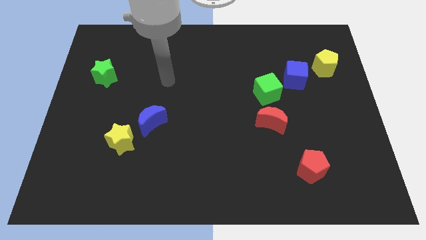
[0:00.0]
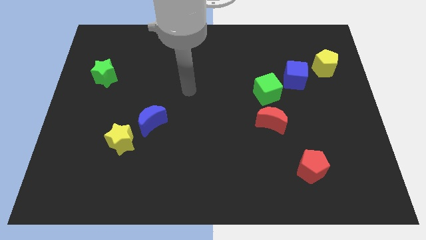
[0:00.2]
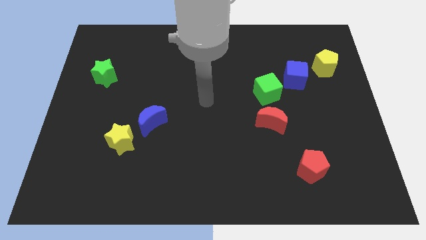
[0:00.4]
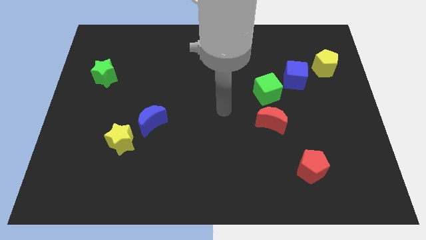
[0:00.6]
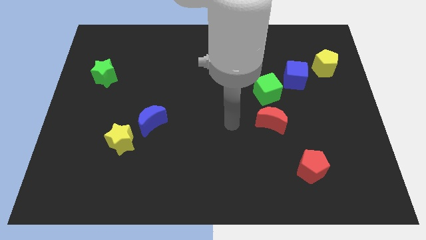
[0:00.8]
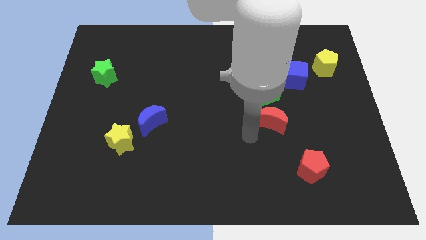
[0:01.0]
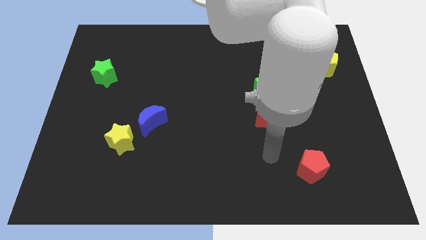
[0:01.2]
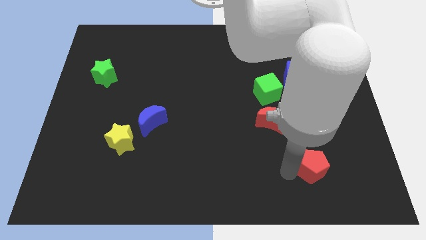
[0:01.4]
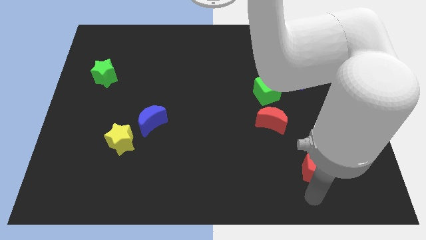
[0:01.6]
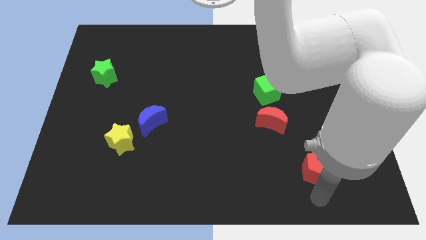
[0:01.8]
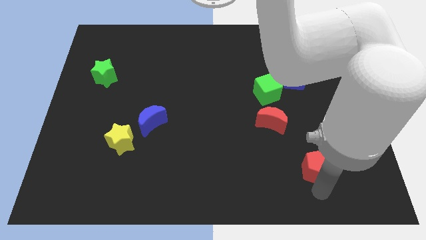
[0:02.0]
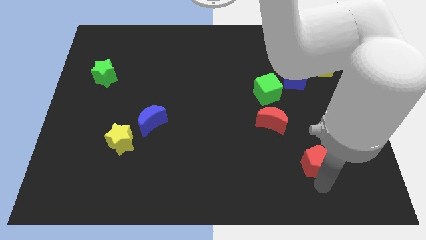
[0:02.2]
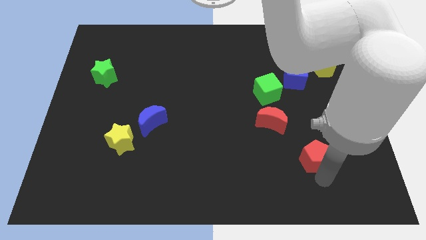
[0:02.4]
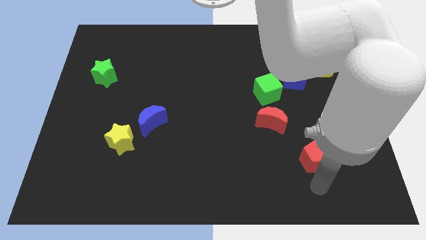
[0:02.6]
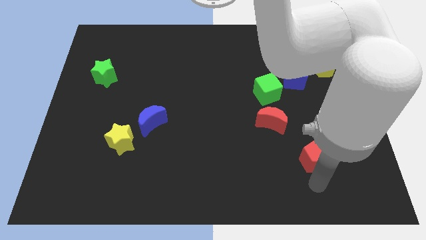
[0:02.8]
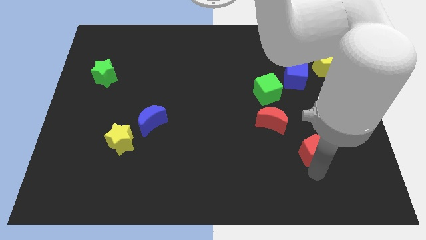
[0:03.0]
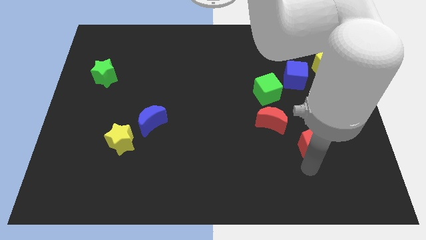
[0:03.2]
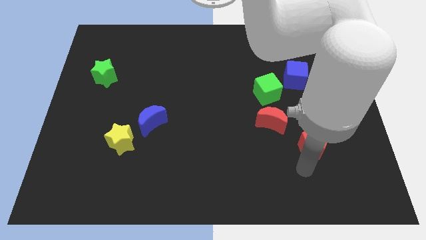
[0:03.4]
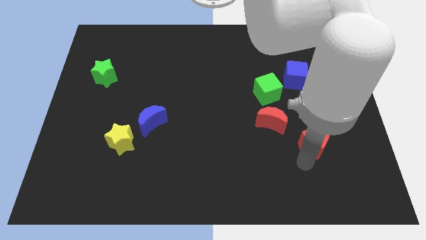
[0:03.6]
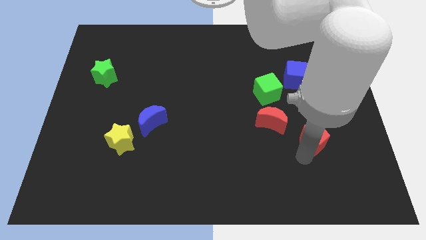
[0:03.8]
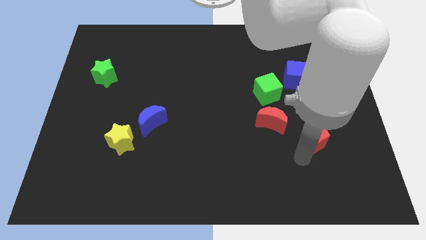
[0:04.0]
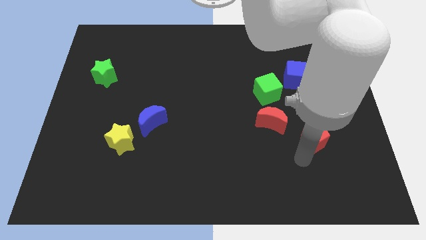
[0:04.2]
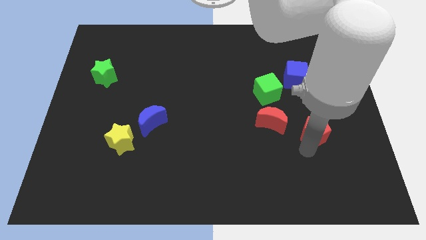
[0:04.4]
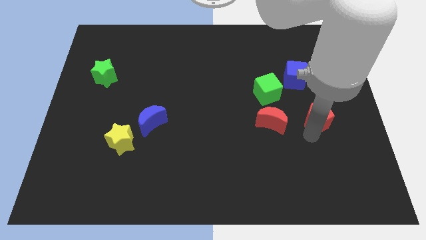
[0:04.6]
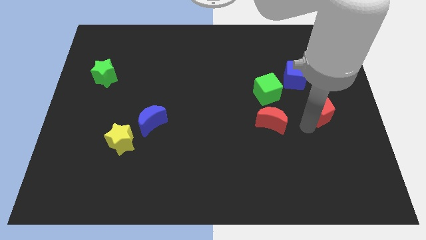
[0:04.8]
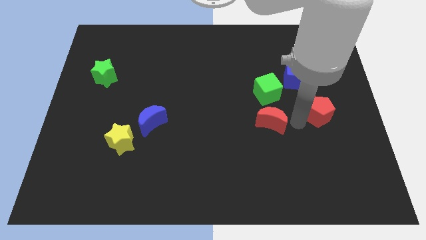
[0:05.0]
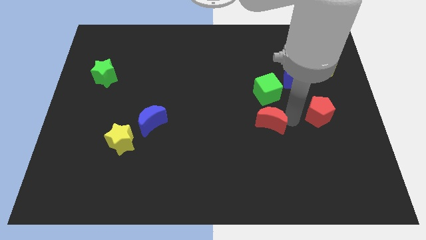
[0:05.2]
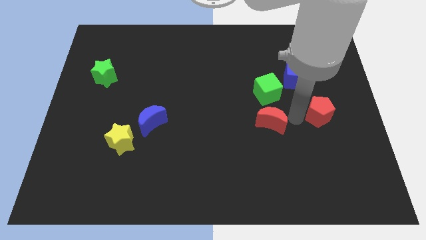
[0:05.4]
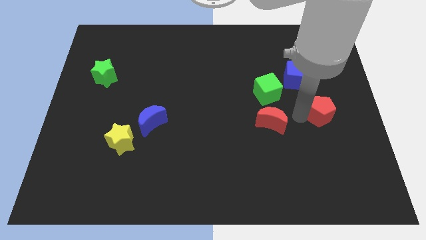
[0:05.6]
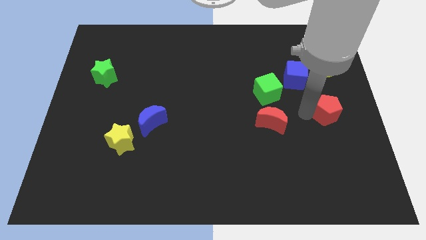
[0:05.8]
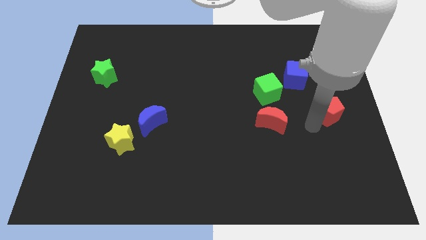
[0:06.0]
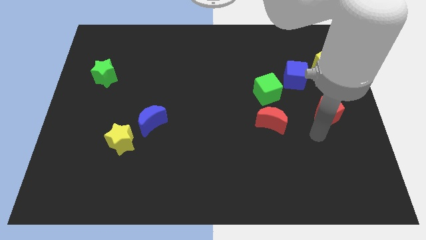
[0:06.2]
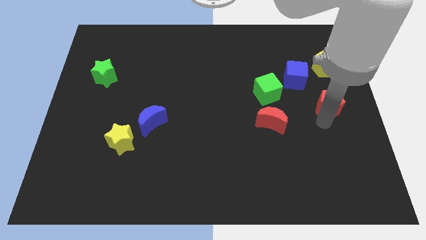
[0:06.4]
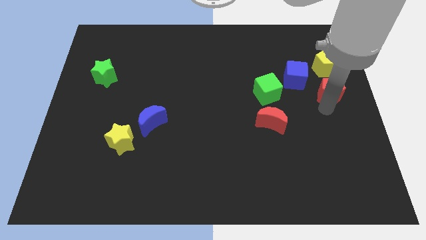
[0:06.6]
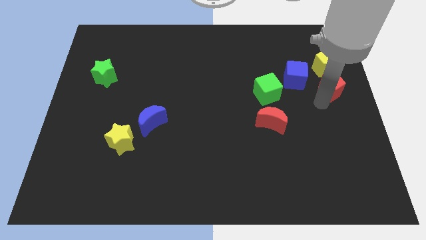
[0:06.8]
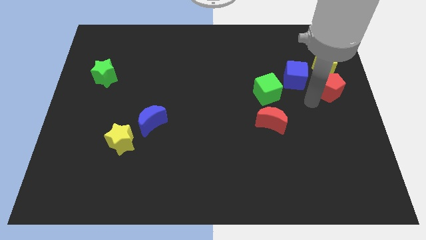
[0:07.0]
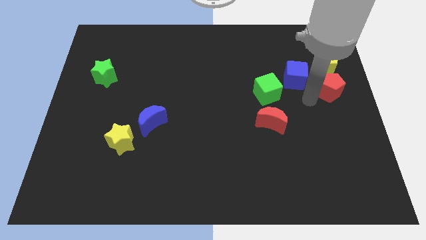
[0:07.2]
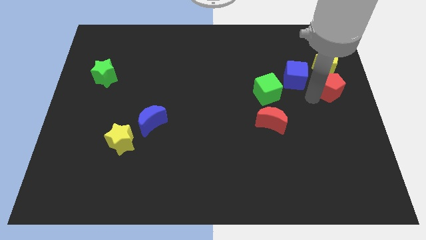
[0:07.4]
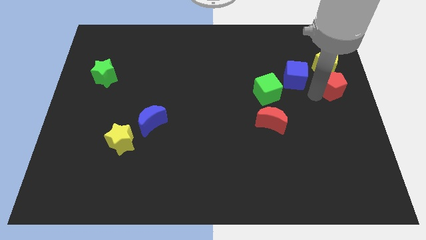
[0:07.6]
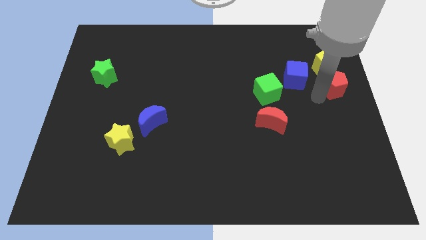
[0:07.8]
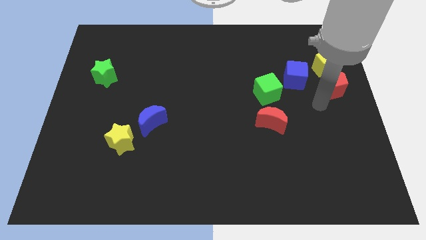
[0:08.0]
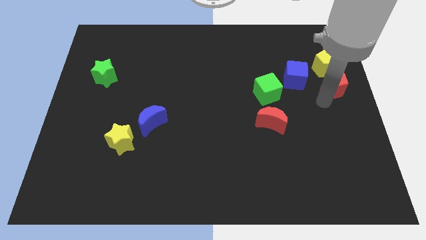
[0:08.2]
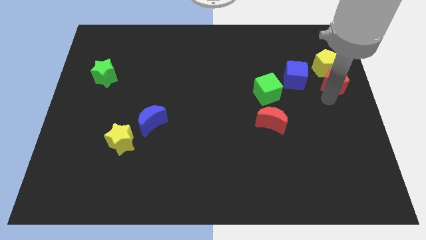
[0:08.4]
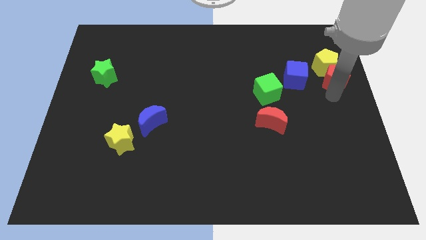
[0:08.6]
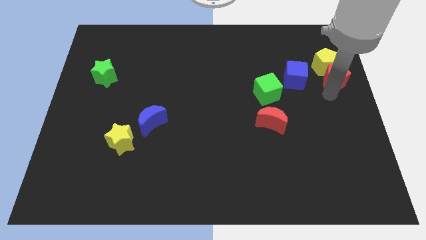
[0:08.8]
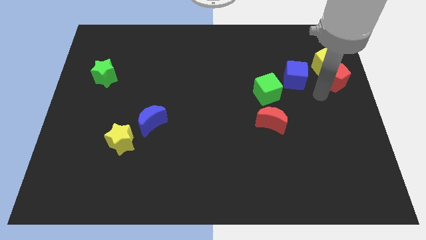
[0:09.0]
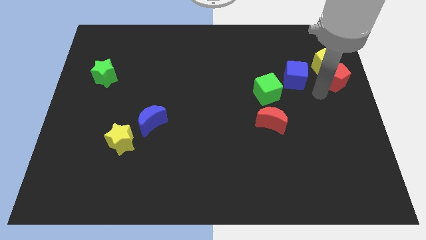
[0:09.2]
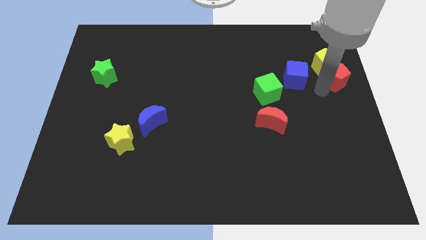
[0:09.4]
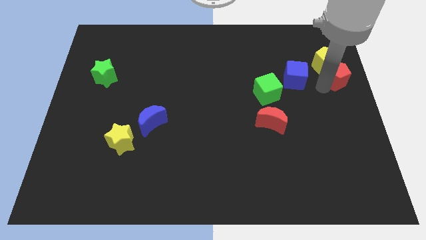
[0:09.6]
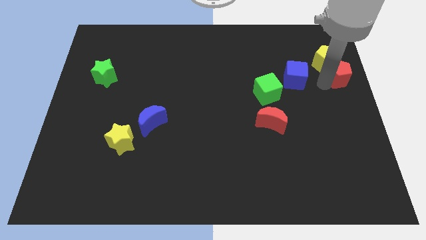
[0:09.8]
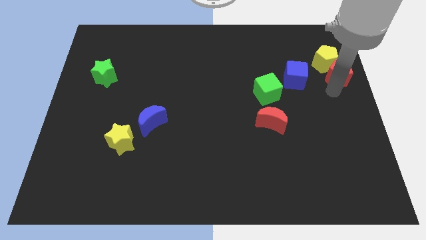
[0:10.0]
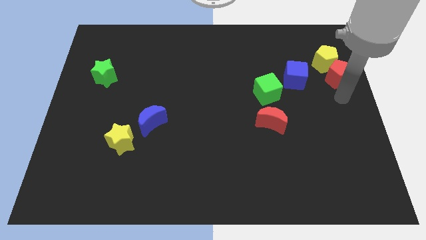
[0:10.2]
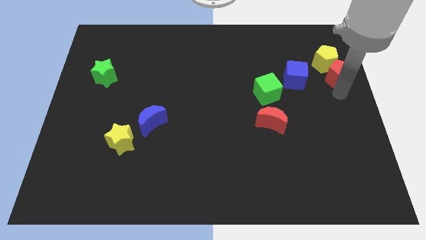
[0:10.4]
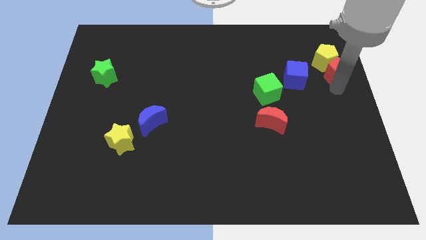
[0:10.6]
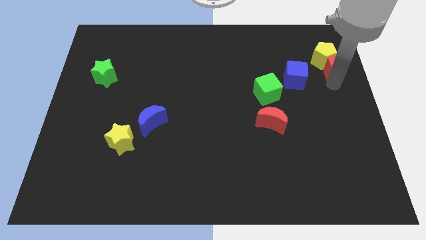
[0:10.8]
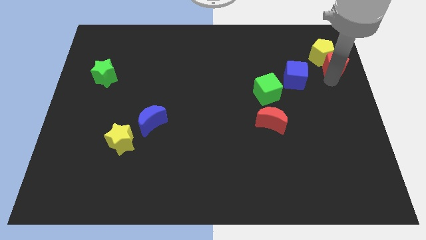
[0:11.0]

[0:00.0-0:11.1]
push the red pentagon diagonally up and to the right of the blue cube

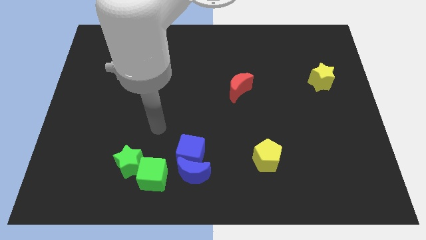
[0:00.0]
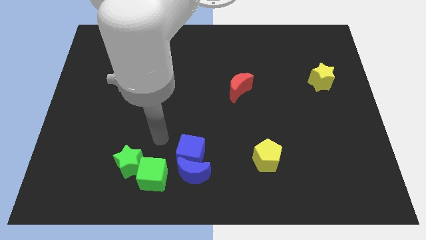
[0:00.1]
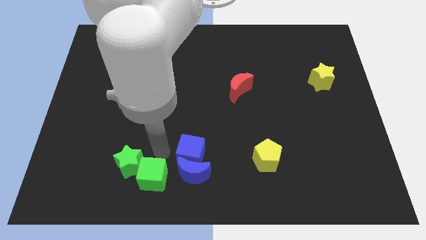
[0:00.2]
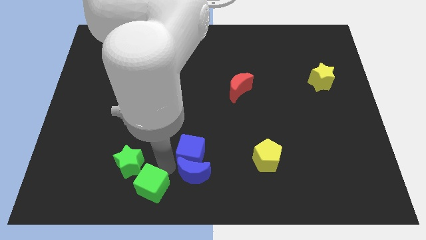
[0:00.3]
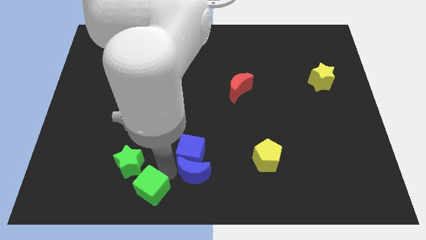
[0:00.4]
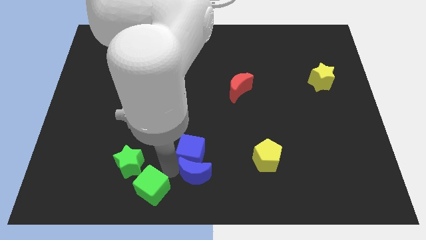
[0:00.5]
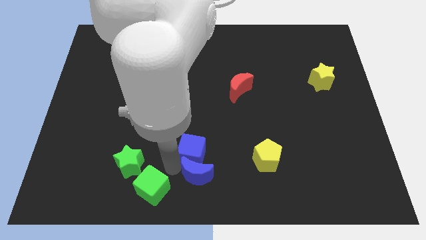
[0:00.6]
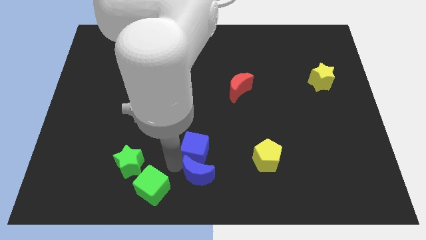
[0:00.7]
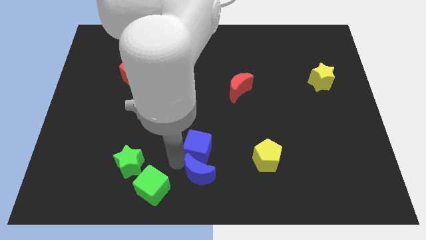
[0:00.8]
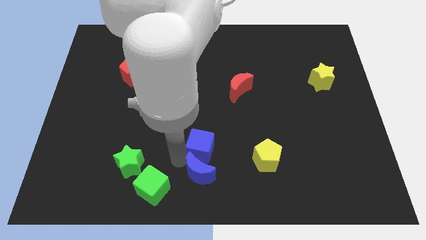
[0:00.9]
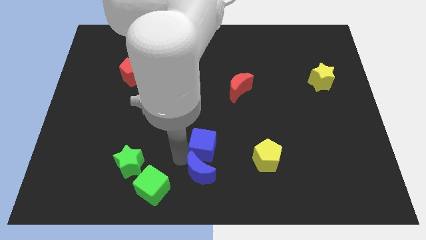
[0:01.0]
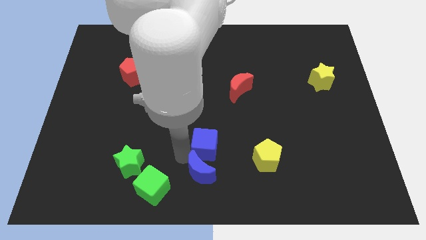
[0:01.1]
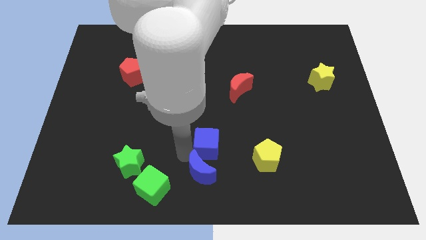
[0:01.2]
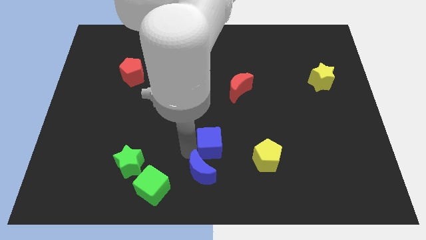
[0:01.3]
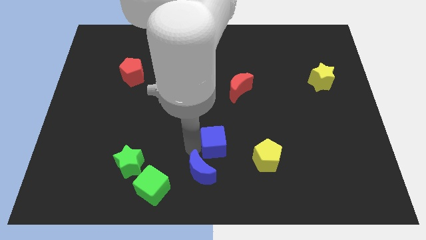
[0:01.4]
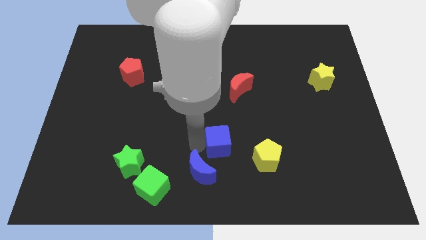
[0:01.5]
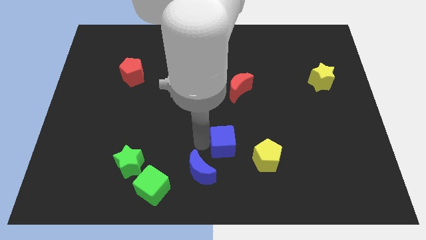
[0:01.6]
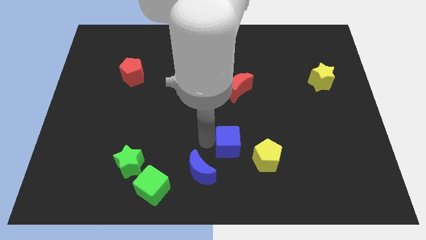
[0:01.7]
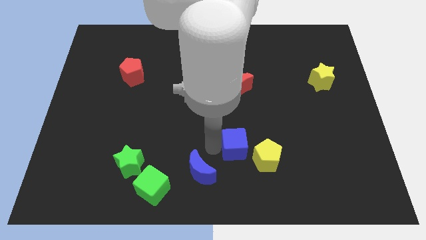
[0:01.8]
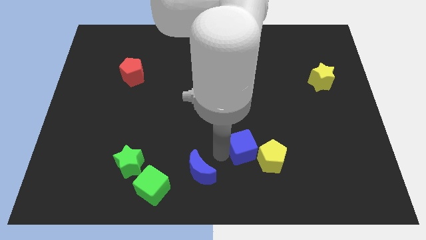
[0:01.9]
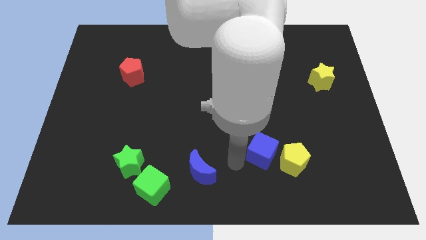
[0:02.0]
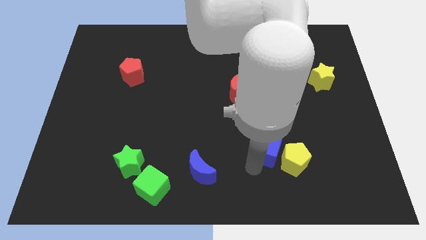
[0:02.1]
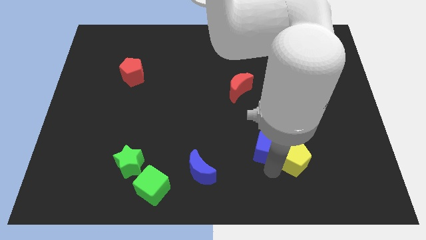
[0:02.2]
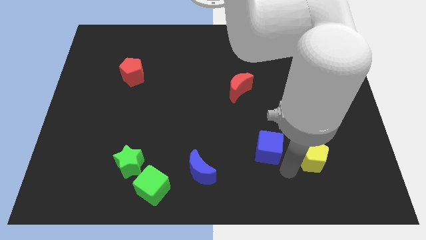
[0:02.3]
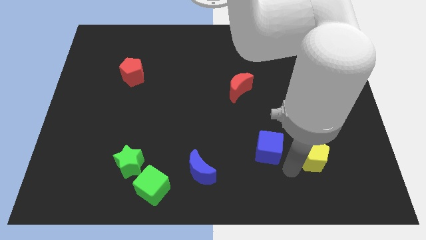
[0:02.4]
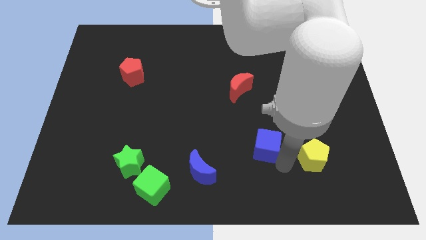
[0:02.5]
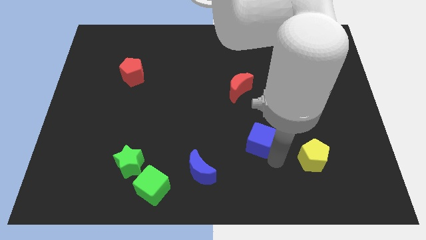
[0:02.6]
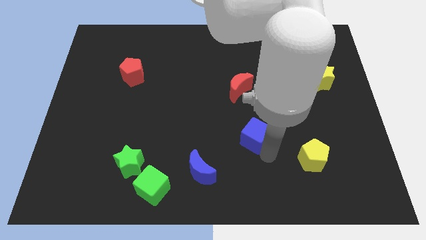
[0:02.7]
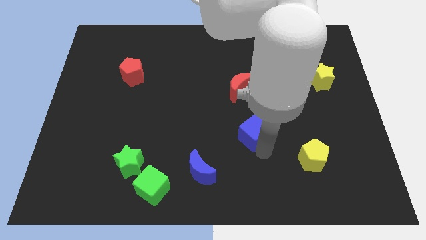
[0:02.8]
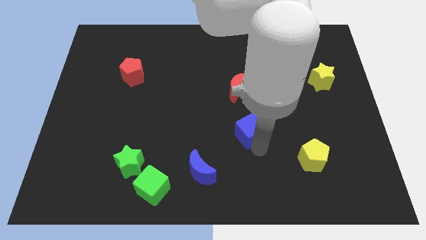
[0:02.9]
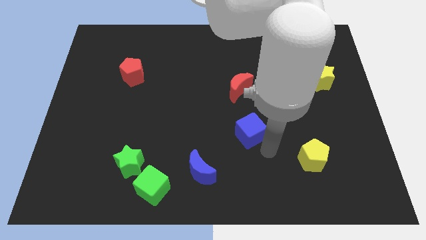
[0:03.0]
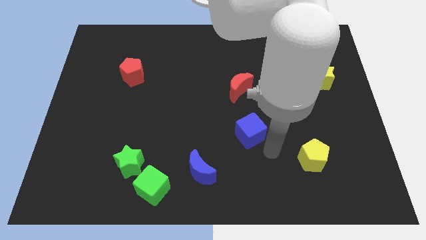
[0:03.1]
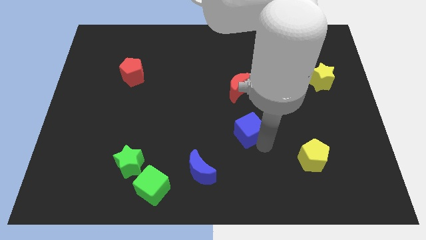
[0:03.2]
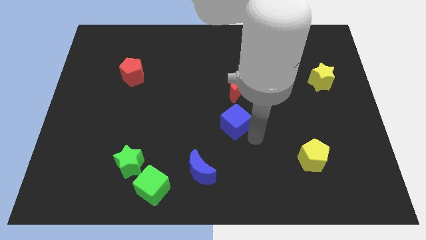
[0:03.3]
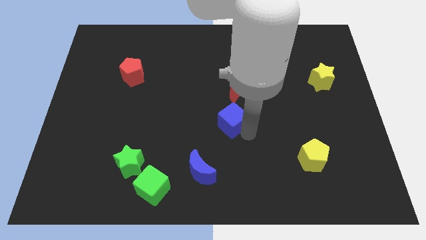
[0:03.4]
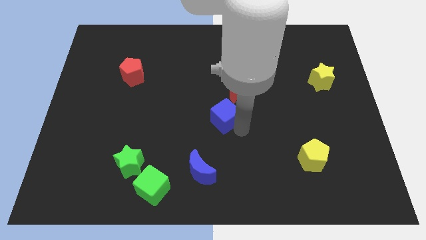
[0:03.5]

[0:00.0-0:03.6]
put the blue cube diagonally down and to the left of the red moon
